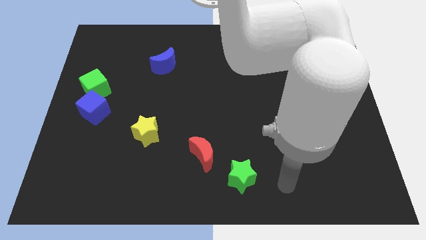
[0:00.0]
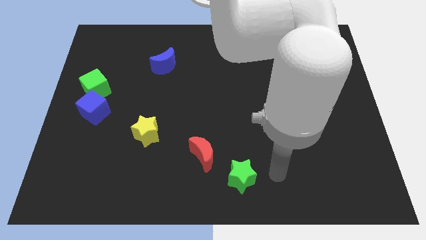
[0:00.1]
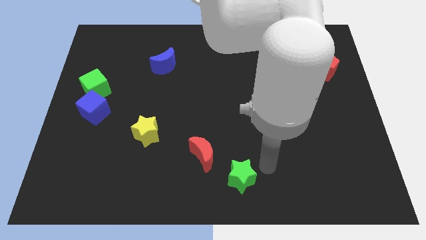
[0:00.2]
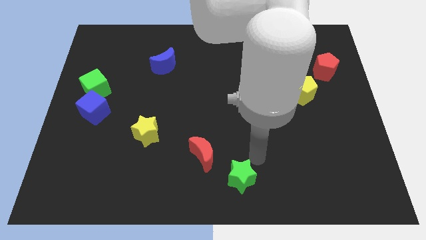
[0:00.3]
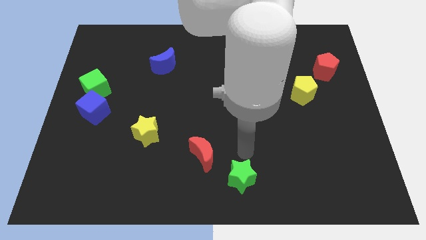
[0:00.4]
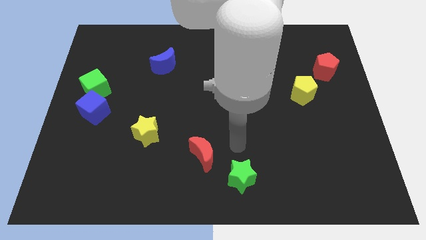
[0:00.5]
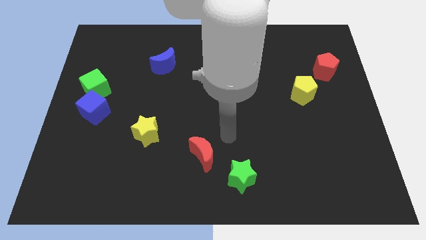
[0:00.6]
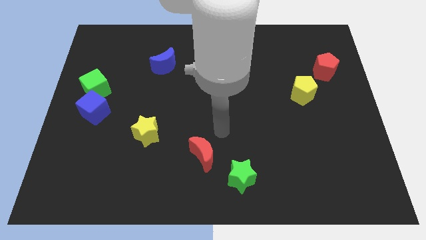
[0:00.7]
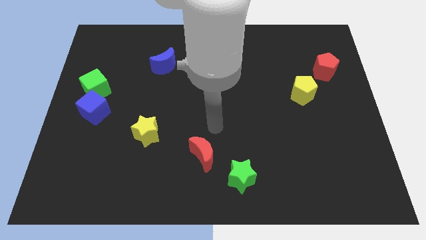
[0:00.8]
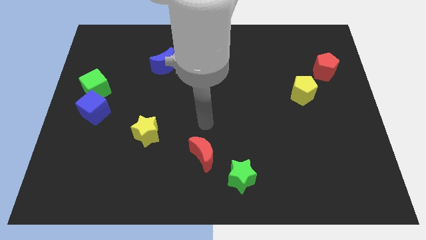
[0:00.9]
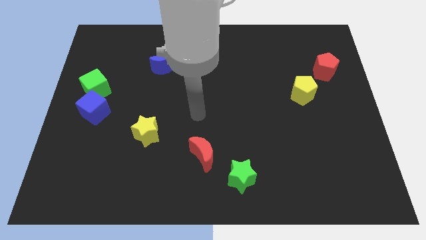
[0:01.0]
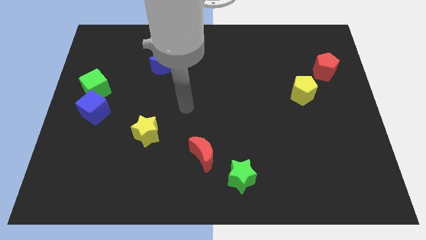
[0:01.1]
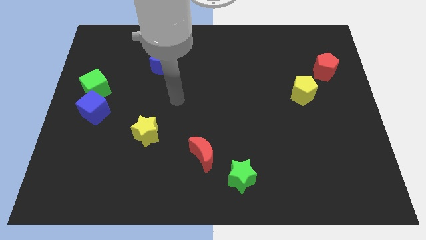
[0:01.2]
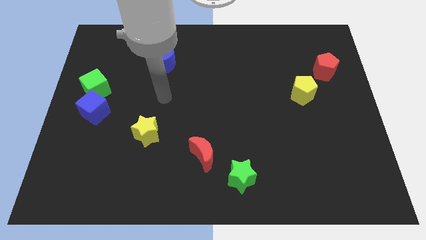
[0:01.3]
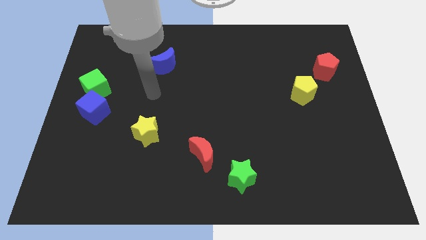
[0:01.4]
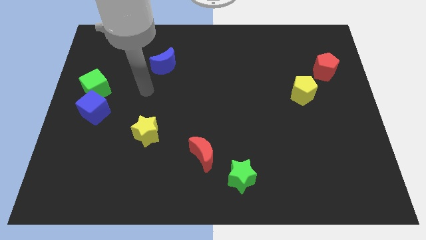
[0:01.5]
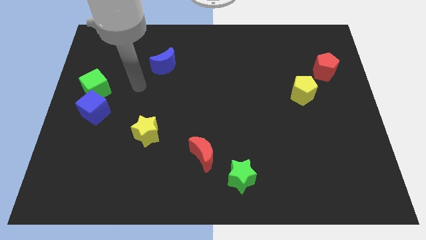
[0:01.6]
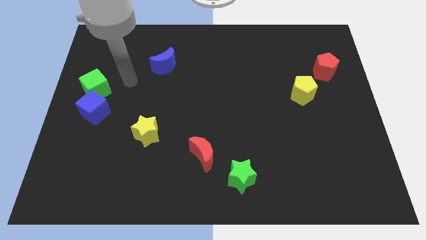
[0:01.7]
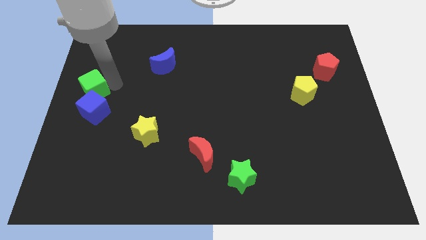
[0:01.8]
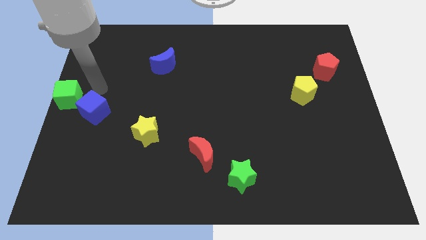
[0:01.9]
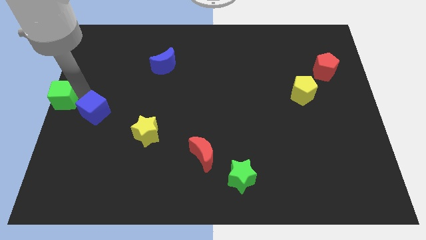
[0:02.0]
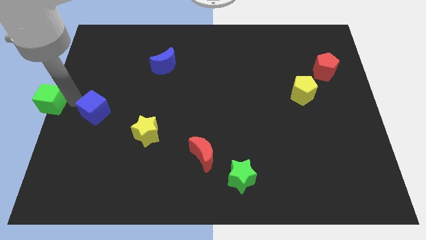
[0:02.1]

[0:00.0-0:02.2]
pull the blue cube apart from the green cube

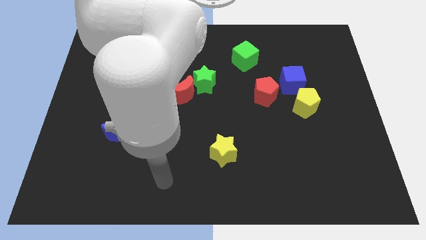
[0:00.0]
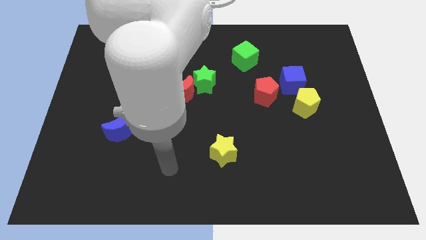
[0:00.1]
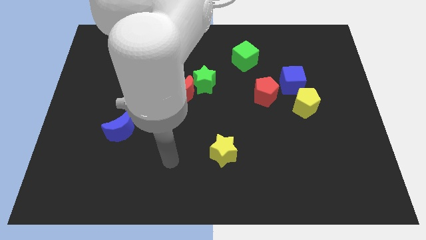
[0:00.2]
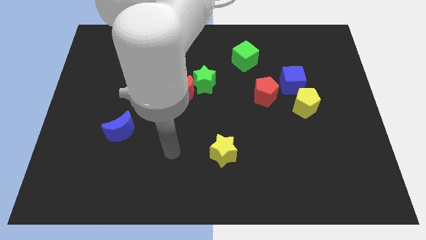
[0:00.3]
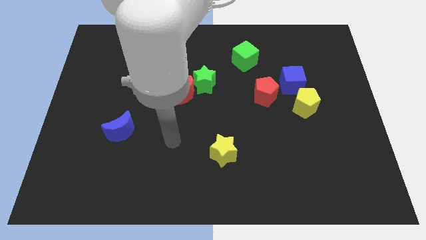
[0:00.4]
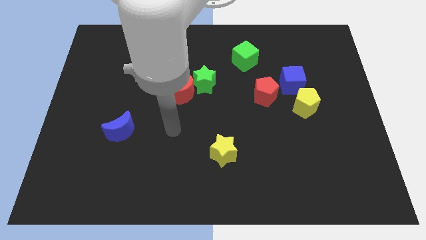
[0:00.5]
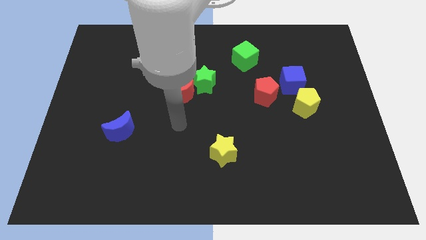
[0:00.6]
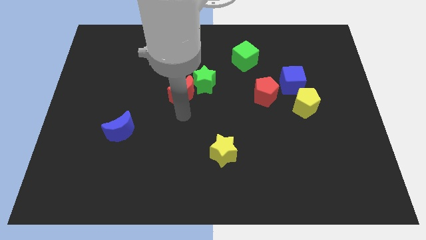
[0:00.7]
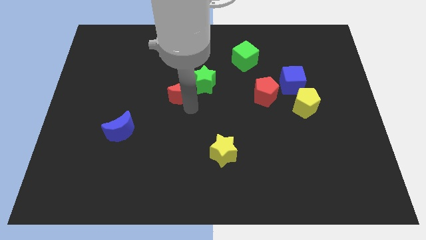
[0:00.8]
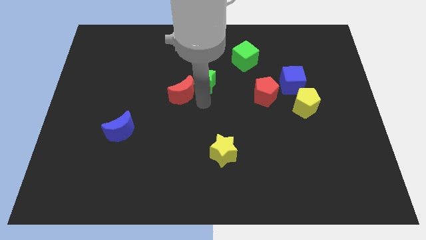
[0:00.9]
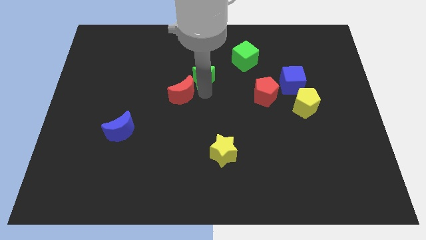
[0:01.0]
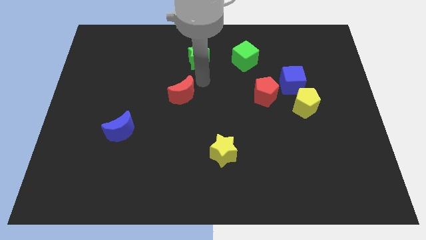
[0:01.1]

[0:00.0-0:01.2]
pull the red moon apart from the green star

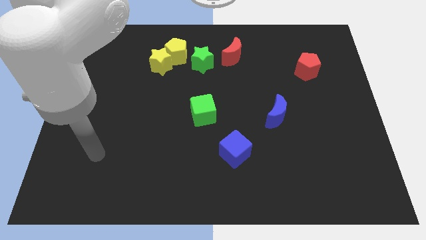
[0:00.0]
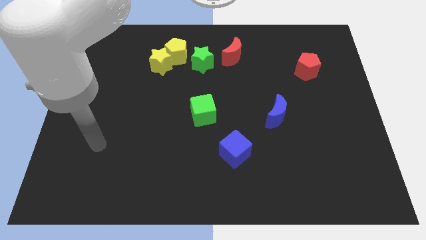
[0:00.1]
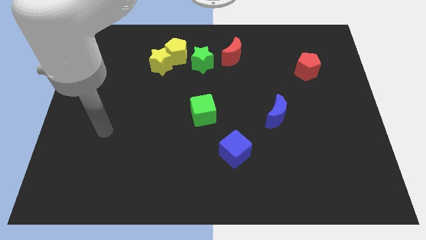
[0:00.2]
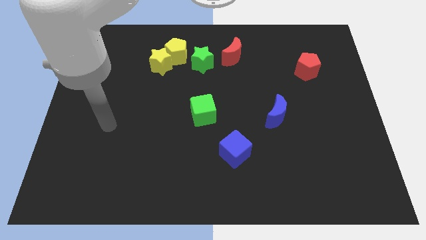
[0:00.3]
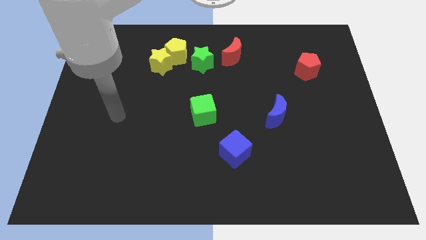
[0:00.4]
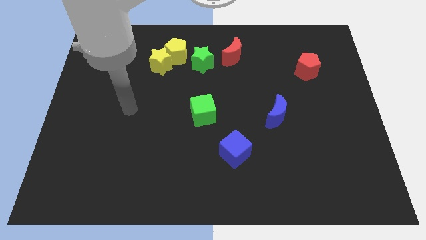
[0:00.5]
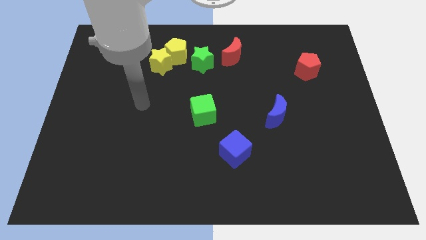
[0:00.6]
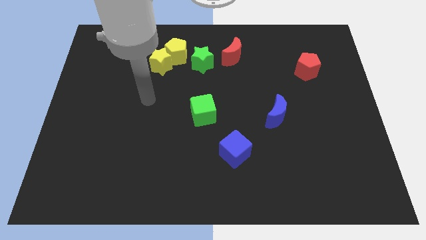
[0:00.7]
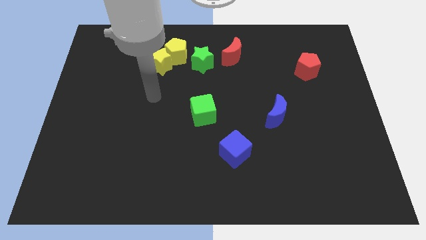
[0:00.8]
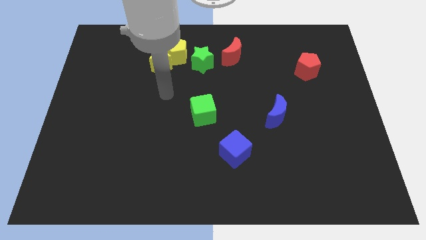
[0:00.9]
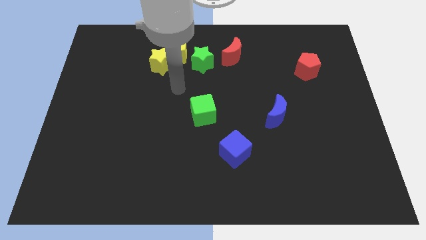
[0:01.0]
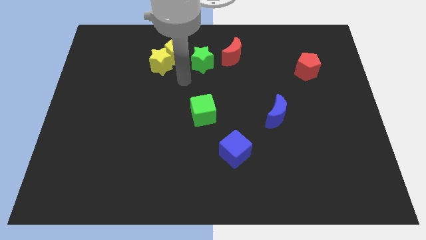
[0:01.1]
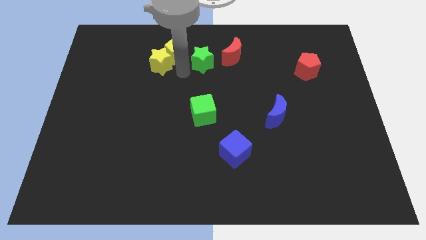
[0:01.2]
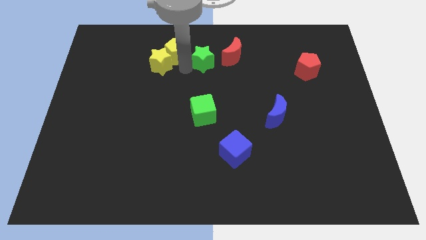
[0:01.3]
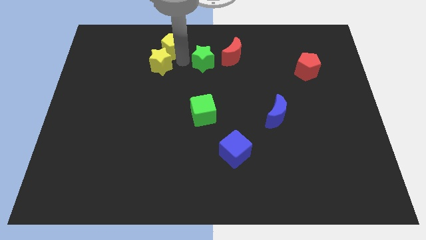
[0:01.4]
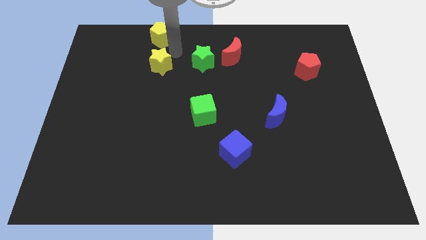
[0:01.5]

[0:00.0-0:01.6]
separate the yellow star from the yellow pentagon

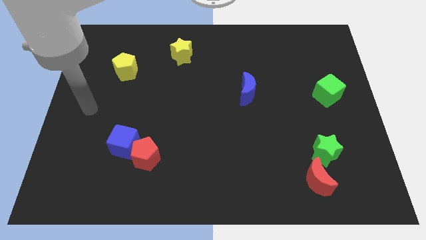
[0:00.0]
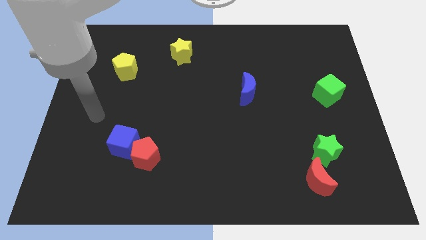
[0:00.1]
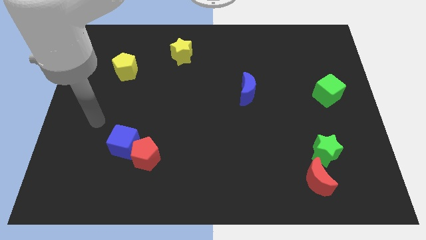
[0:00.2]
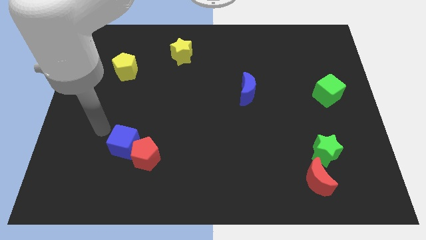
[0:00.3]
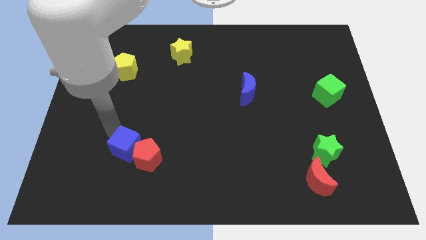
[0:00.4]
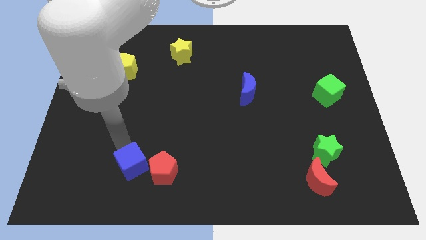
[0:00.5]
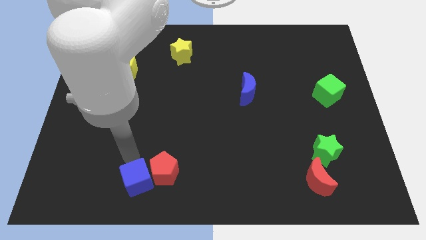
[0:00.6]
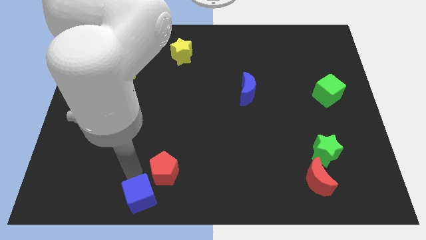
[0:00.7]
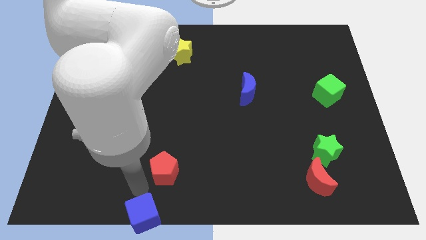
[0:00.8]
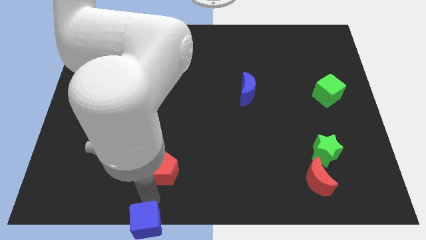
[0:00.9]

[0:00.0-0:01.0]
move the red pentagon away from the blue cube

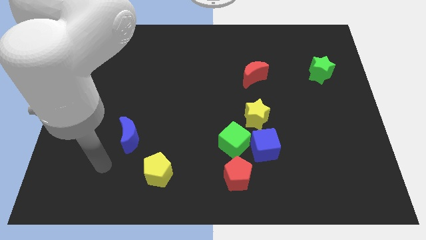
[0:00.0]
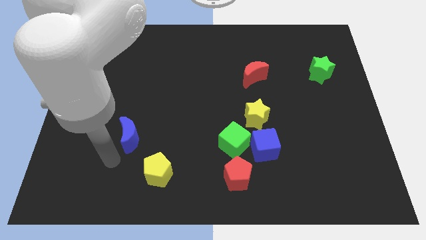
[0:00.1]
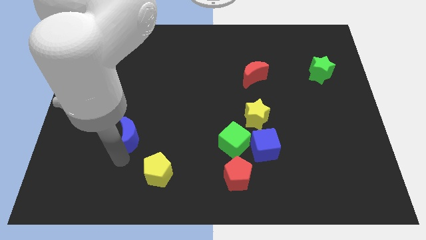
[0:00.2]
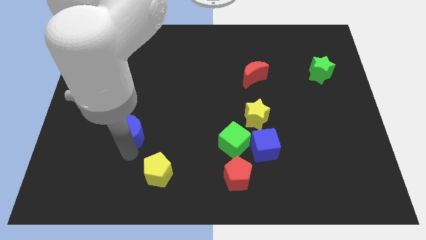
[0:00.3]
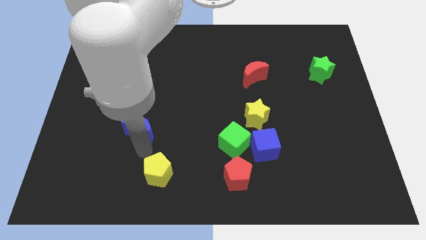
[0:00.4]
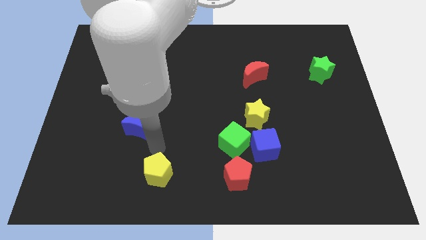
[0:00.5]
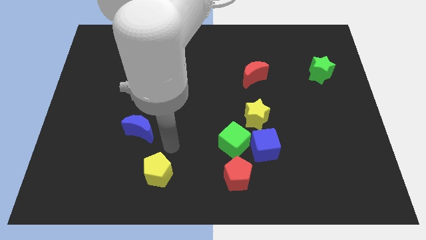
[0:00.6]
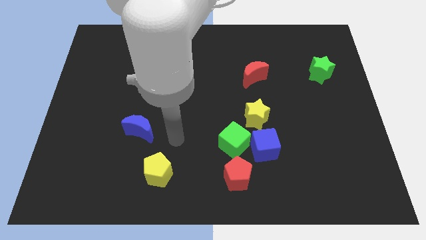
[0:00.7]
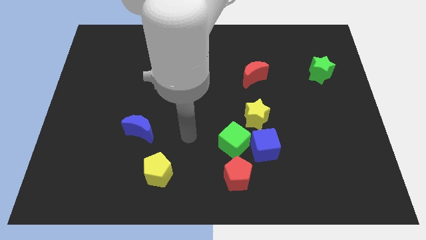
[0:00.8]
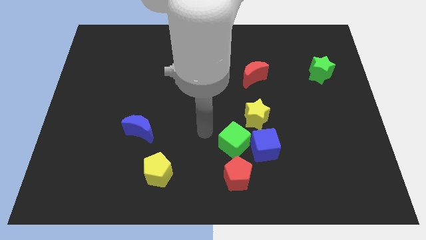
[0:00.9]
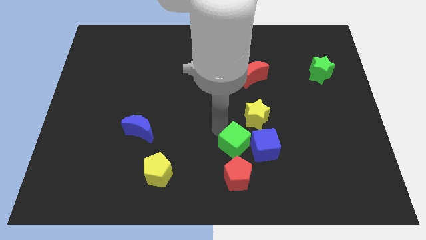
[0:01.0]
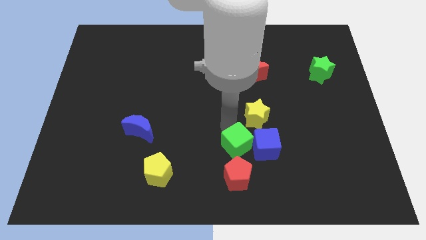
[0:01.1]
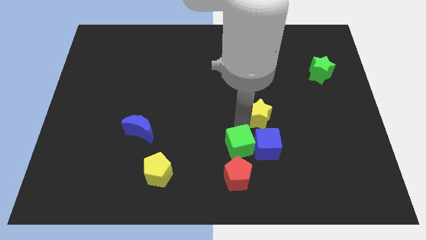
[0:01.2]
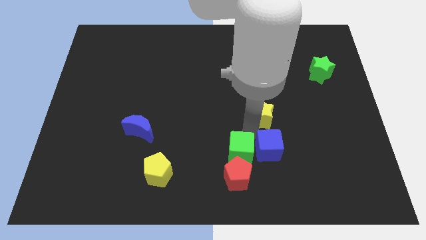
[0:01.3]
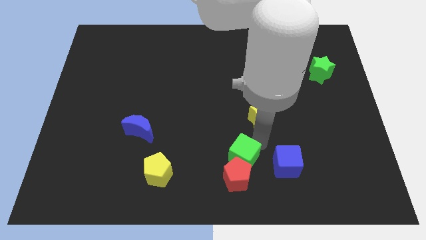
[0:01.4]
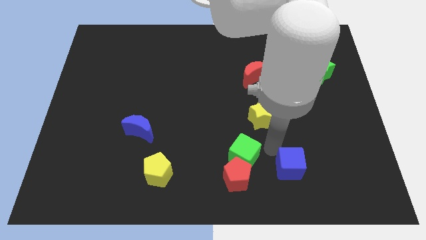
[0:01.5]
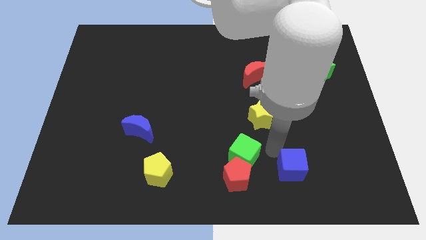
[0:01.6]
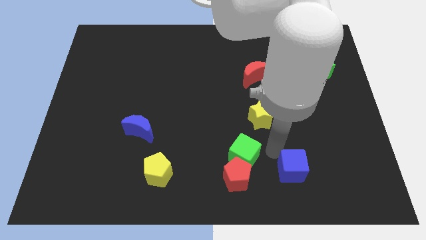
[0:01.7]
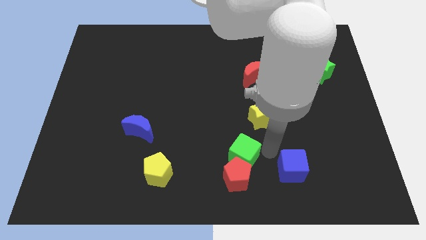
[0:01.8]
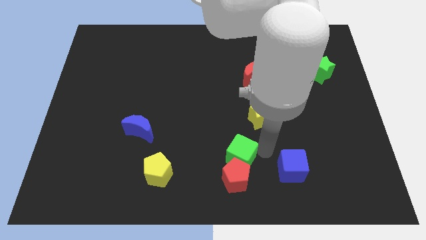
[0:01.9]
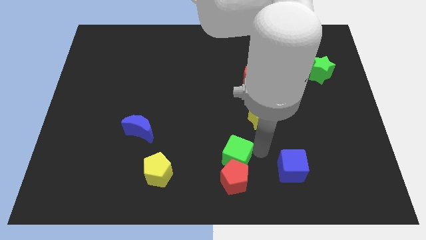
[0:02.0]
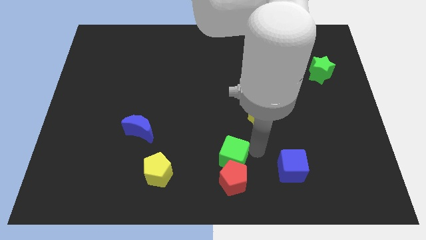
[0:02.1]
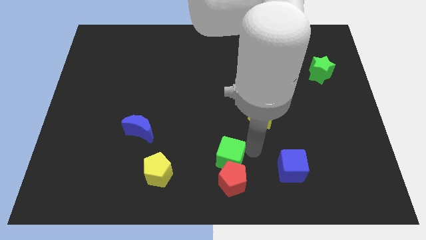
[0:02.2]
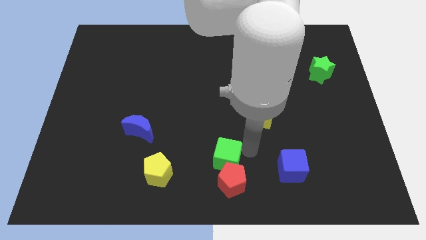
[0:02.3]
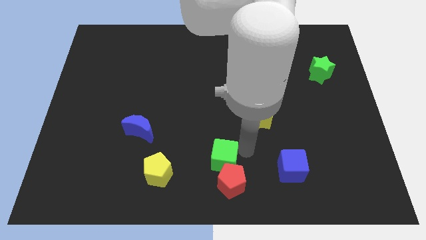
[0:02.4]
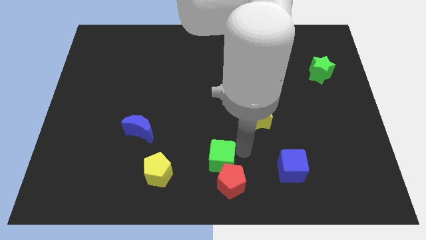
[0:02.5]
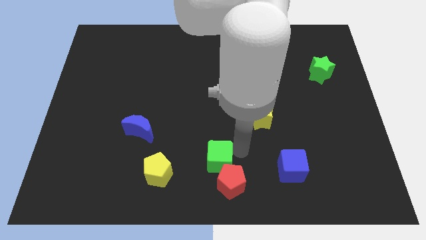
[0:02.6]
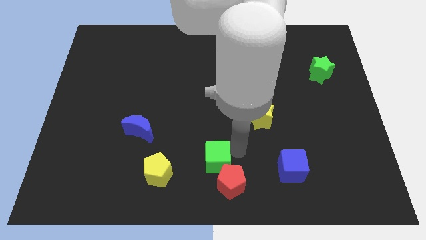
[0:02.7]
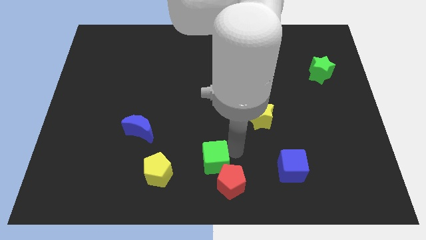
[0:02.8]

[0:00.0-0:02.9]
move the green cube away from the group of blocks

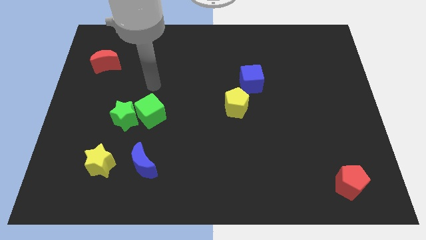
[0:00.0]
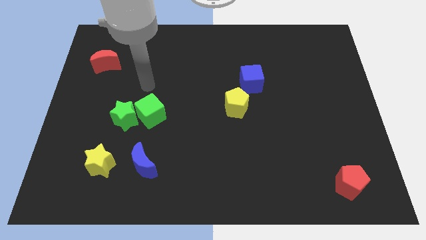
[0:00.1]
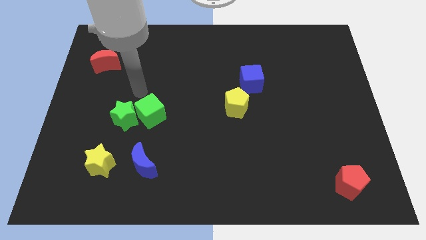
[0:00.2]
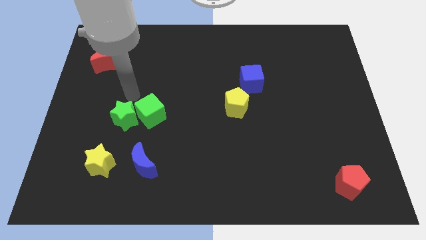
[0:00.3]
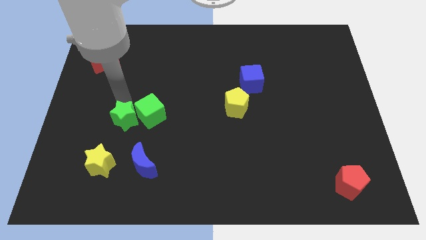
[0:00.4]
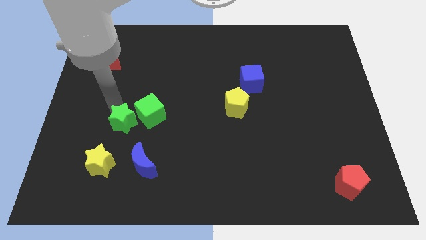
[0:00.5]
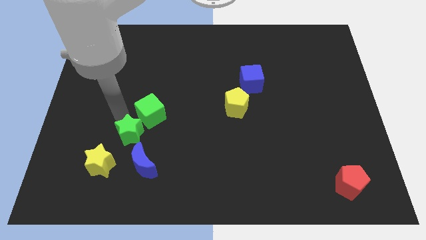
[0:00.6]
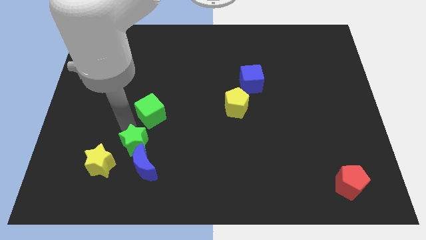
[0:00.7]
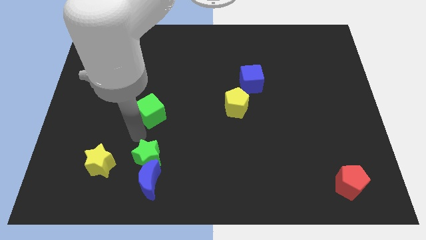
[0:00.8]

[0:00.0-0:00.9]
separate the green cube from the green star